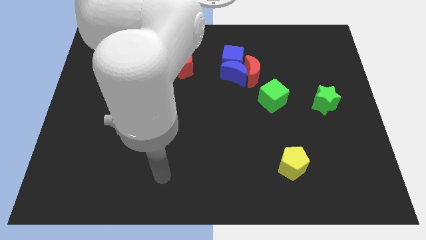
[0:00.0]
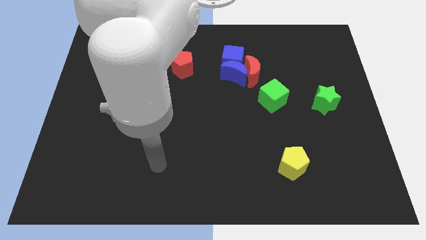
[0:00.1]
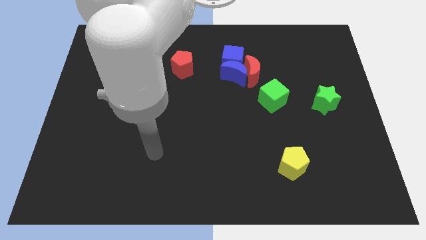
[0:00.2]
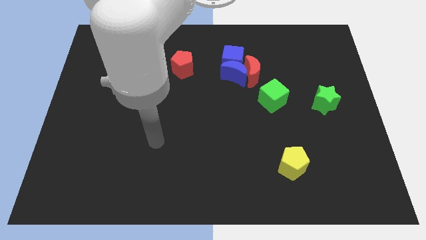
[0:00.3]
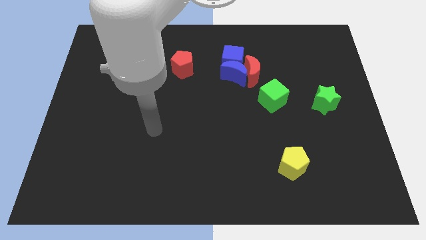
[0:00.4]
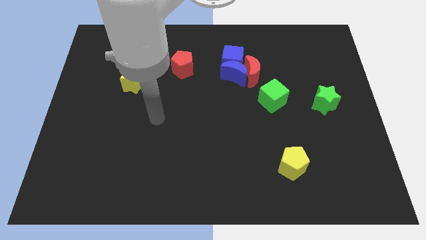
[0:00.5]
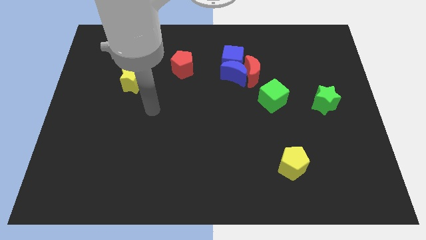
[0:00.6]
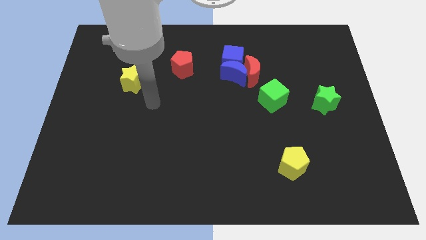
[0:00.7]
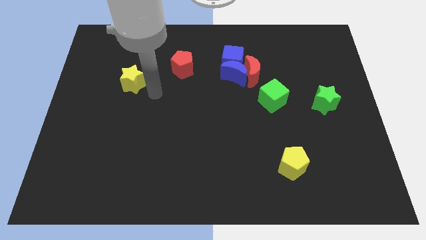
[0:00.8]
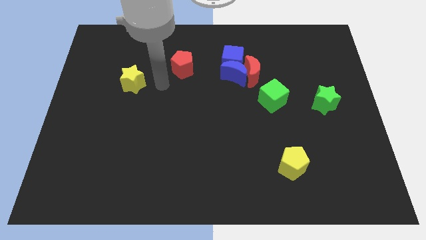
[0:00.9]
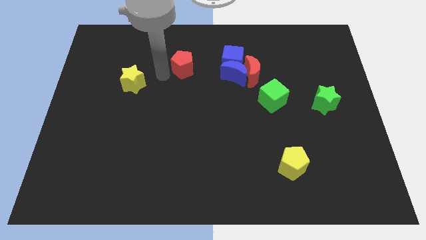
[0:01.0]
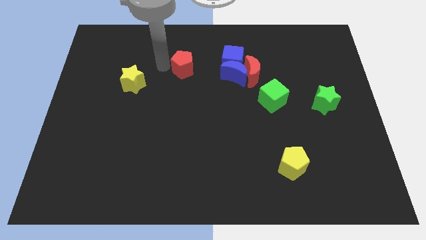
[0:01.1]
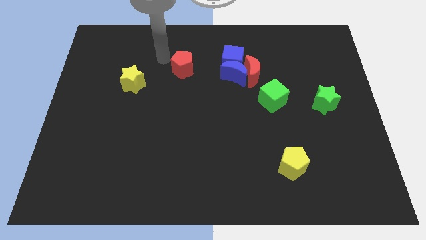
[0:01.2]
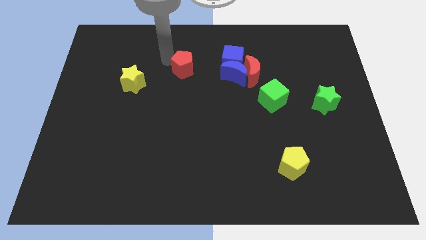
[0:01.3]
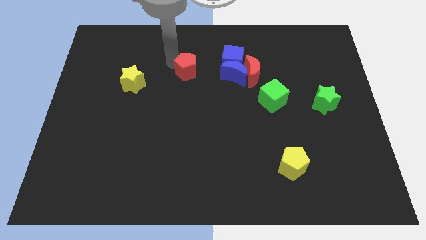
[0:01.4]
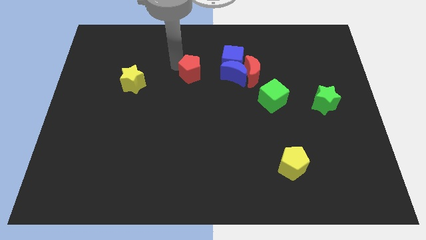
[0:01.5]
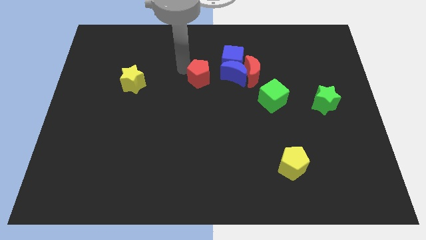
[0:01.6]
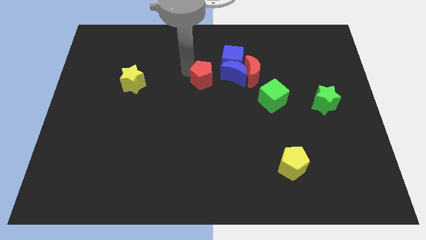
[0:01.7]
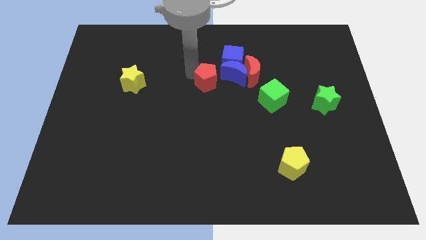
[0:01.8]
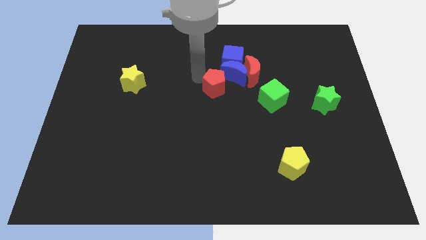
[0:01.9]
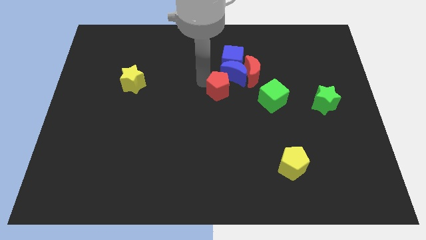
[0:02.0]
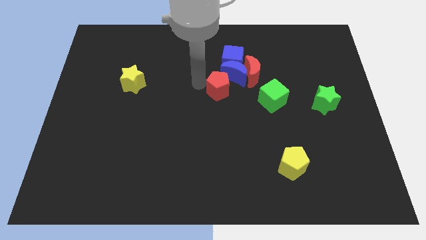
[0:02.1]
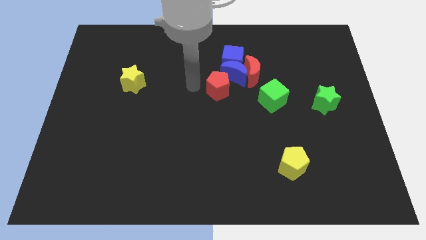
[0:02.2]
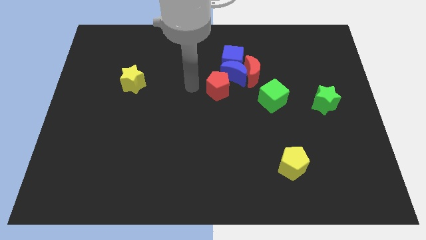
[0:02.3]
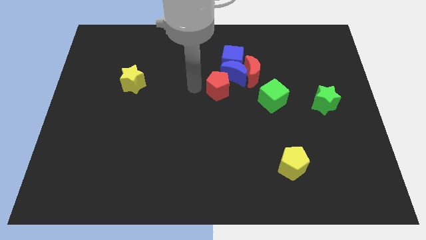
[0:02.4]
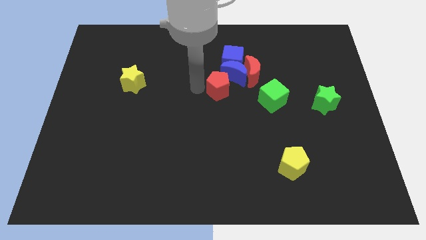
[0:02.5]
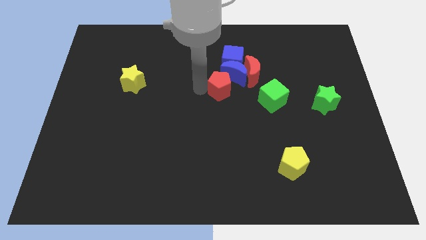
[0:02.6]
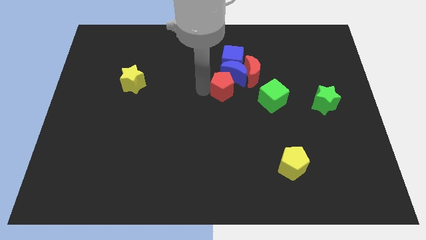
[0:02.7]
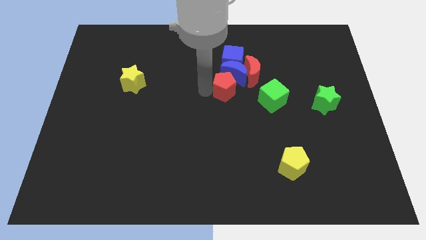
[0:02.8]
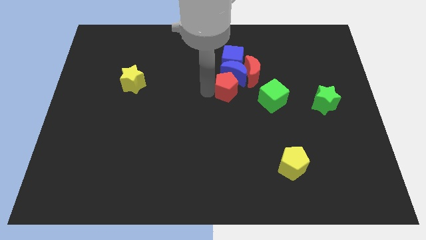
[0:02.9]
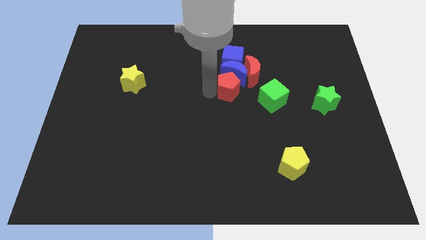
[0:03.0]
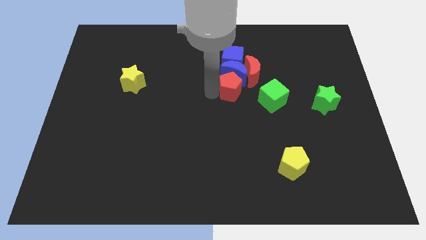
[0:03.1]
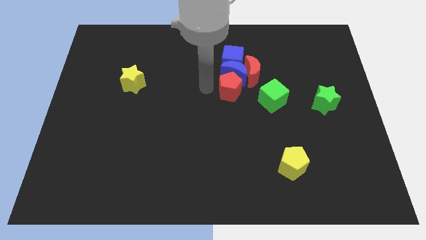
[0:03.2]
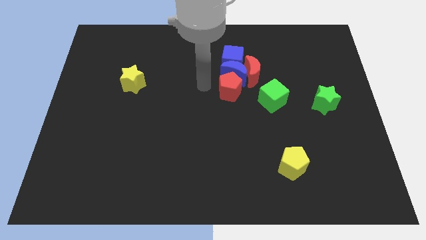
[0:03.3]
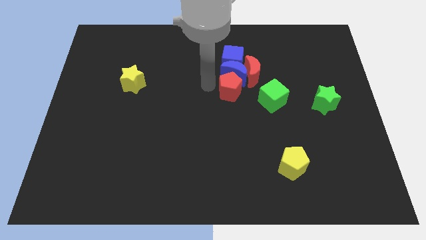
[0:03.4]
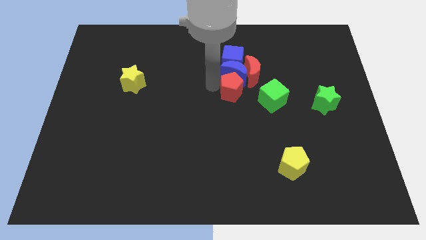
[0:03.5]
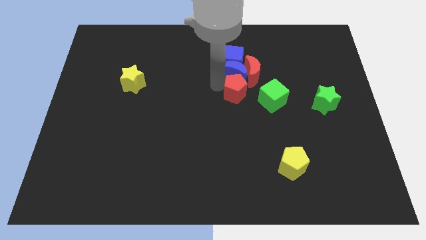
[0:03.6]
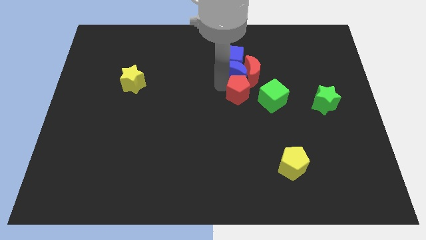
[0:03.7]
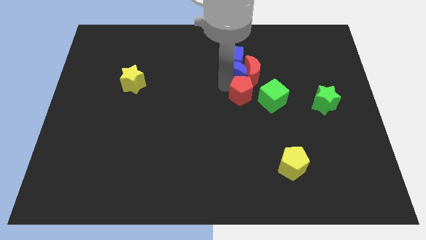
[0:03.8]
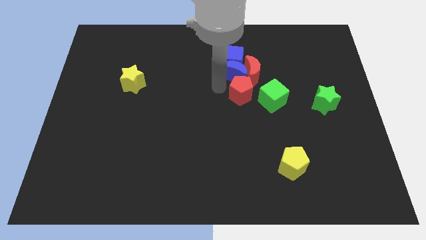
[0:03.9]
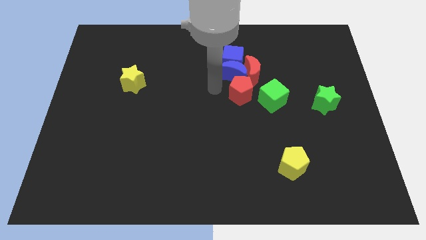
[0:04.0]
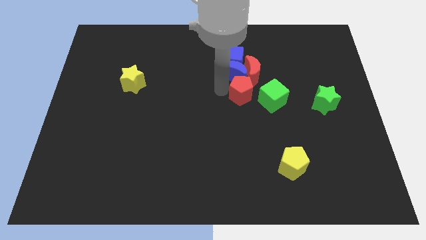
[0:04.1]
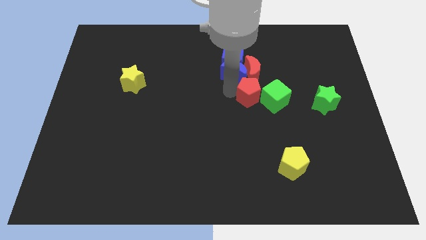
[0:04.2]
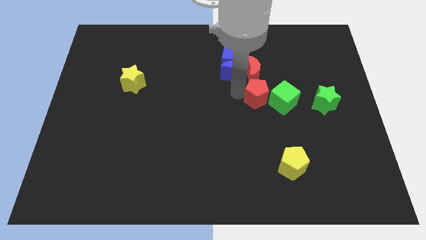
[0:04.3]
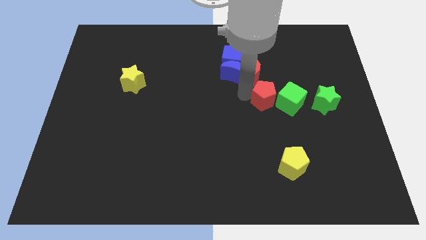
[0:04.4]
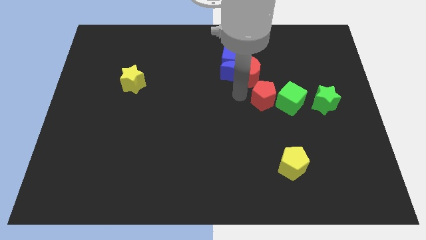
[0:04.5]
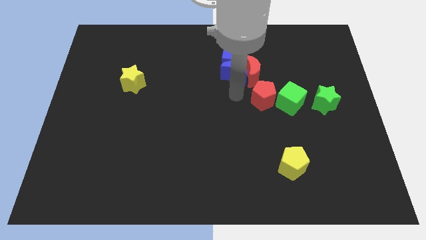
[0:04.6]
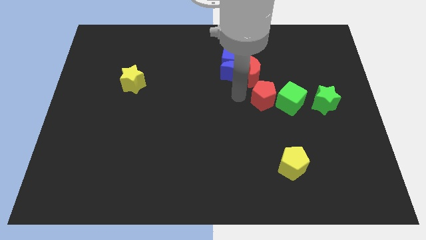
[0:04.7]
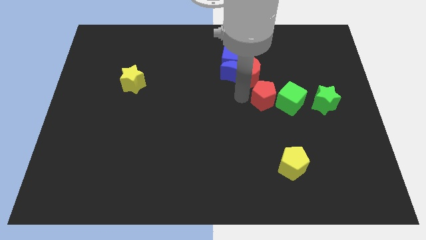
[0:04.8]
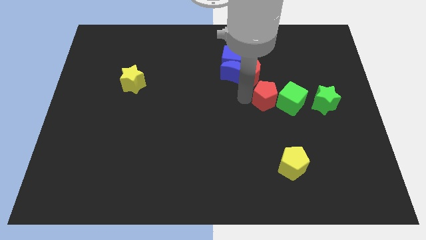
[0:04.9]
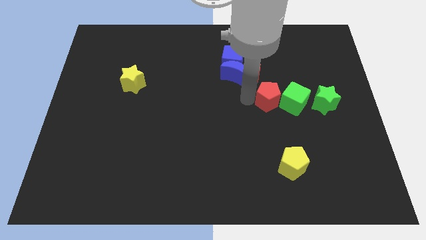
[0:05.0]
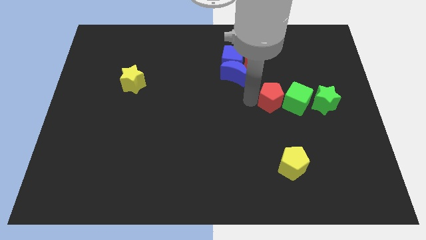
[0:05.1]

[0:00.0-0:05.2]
put the red pentagon close to the green cube
